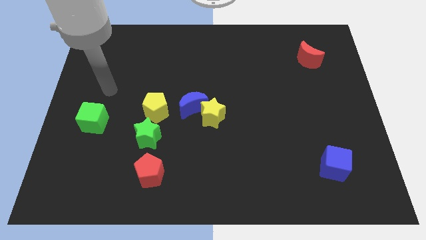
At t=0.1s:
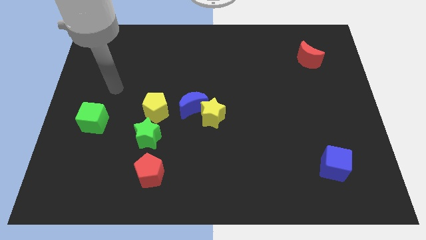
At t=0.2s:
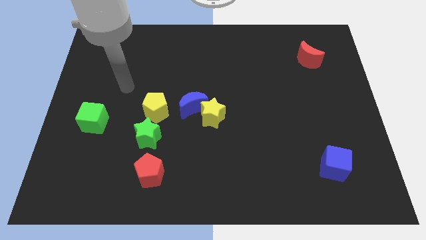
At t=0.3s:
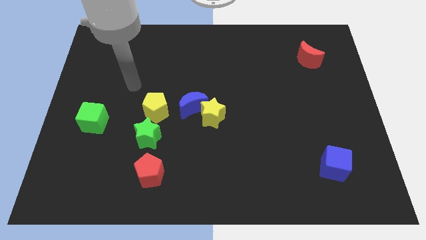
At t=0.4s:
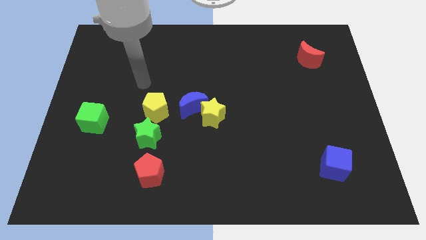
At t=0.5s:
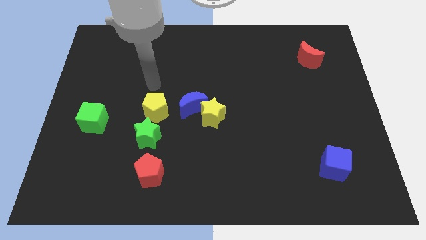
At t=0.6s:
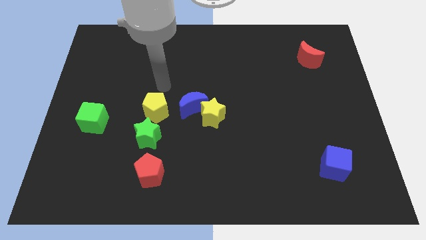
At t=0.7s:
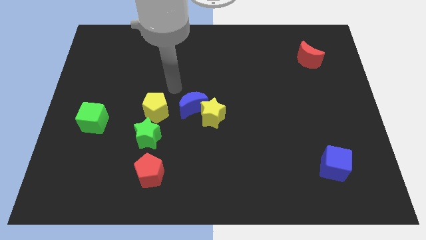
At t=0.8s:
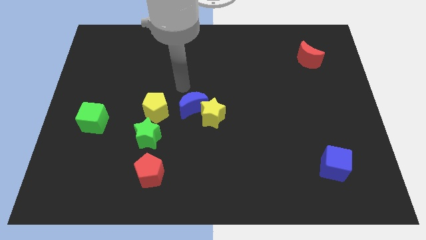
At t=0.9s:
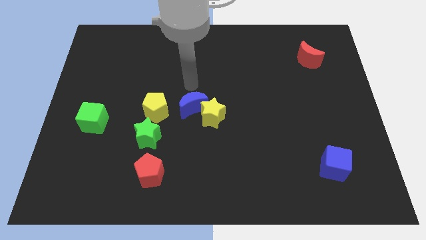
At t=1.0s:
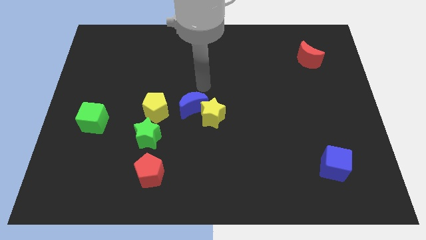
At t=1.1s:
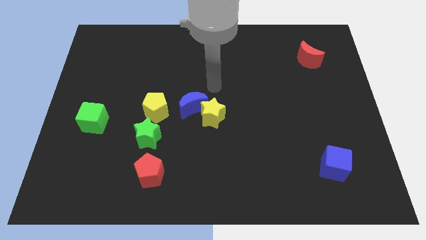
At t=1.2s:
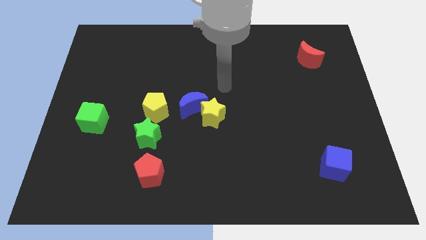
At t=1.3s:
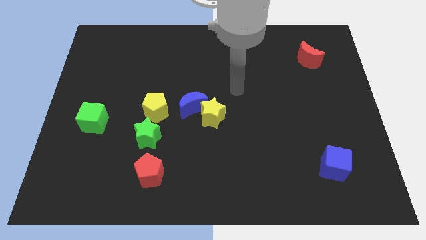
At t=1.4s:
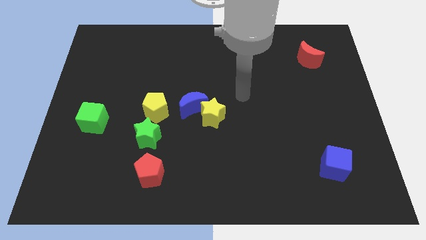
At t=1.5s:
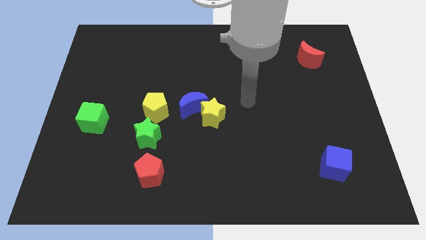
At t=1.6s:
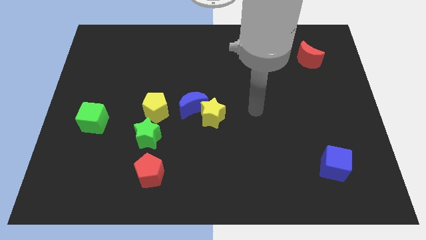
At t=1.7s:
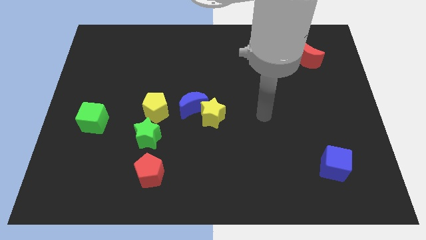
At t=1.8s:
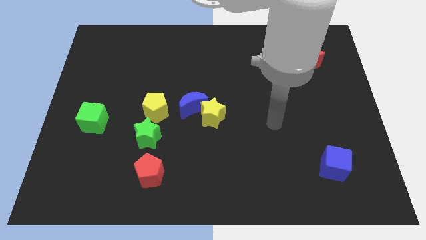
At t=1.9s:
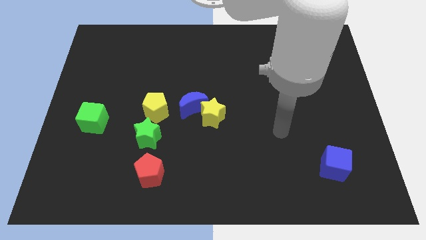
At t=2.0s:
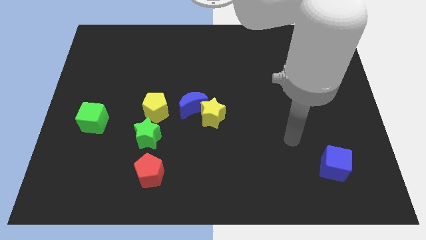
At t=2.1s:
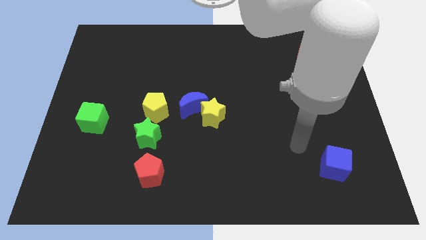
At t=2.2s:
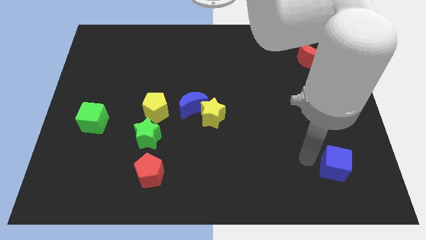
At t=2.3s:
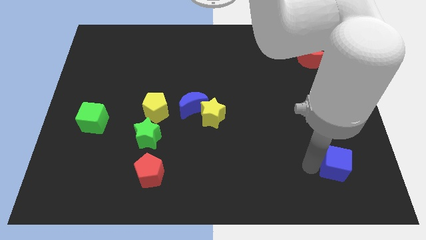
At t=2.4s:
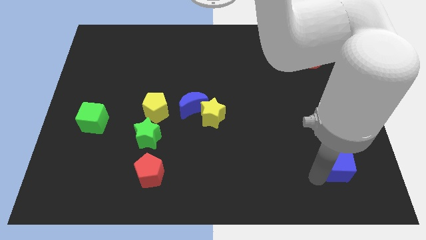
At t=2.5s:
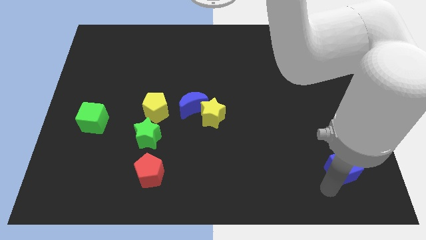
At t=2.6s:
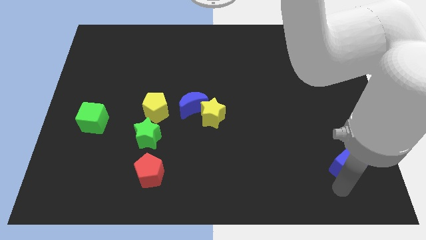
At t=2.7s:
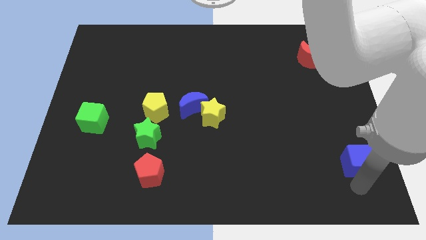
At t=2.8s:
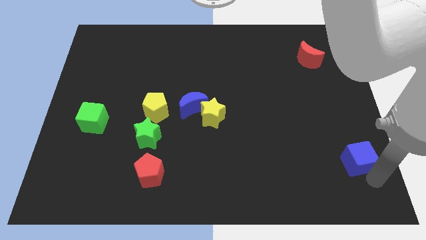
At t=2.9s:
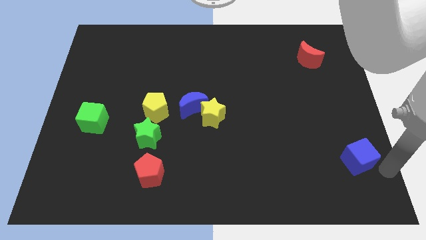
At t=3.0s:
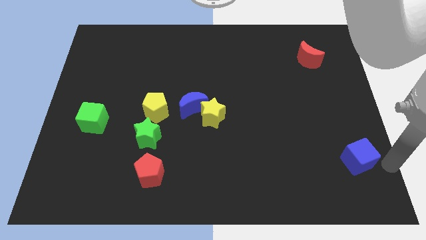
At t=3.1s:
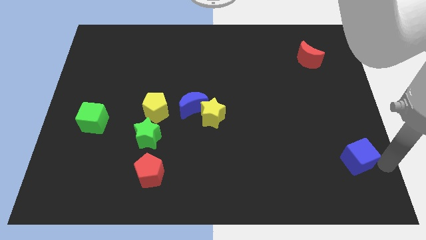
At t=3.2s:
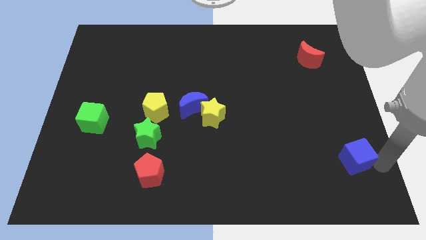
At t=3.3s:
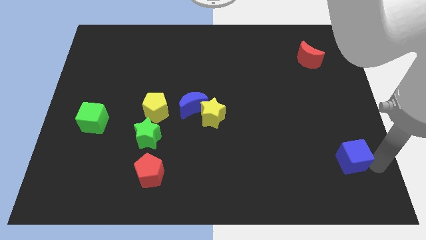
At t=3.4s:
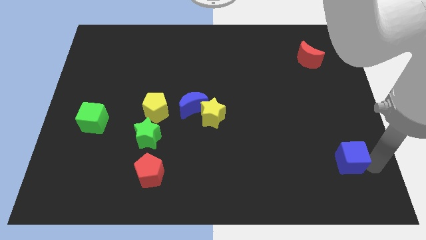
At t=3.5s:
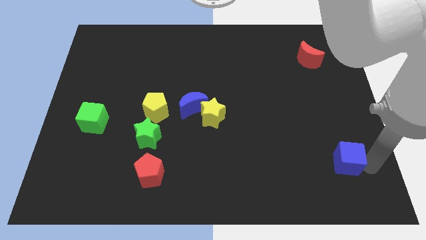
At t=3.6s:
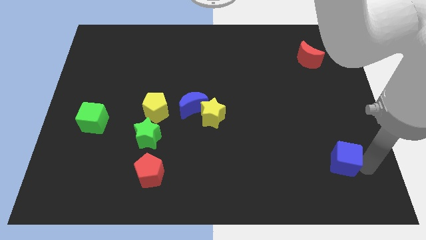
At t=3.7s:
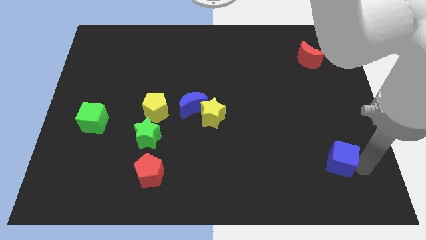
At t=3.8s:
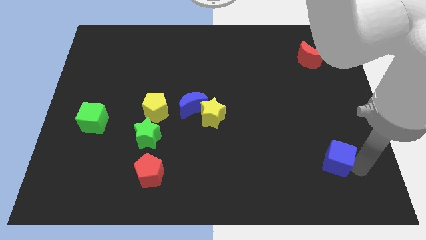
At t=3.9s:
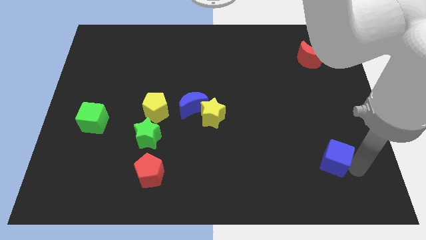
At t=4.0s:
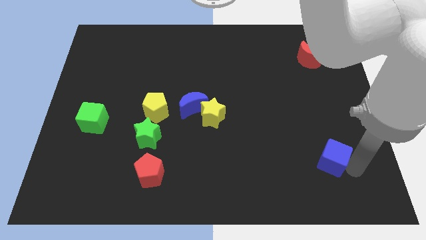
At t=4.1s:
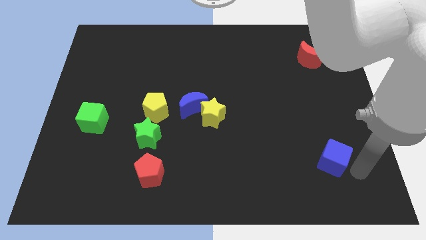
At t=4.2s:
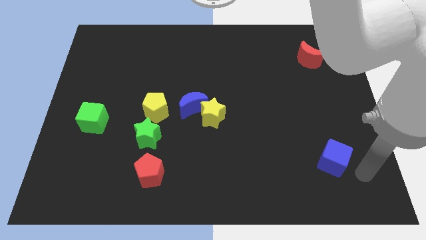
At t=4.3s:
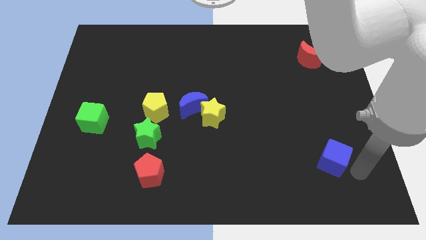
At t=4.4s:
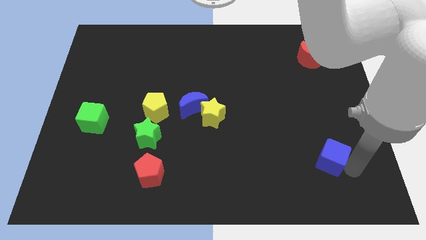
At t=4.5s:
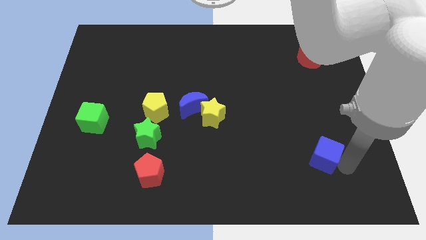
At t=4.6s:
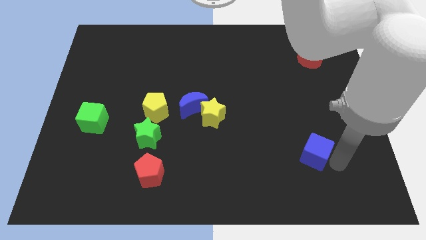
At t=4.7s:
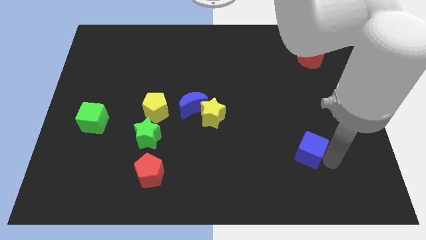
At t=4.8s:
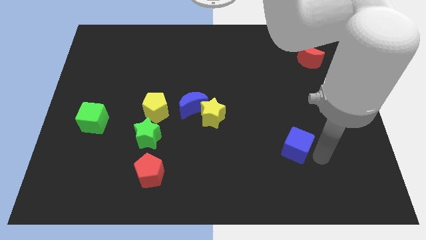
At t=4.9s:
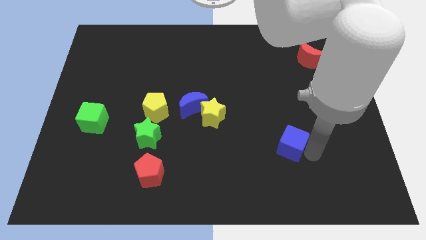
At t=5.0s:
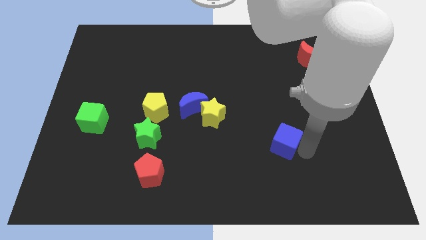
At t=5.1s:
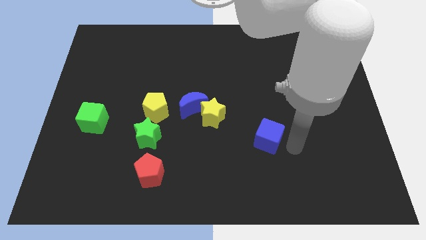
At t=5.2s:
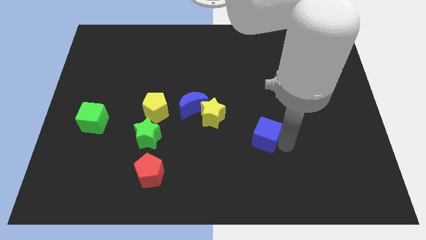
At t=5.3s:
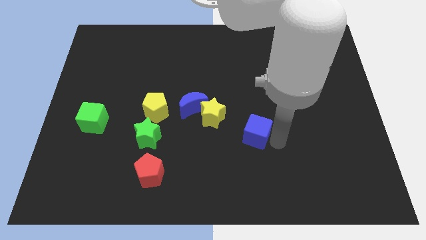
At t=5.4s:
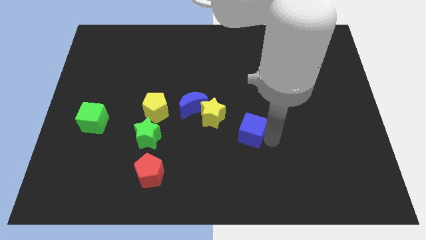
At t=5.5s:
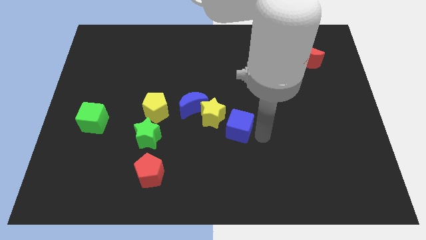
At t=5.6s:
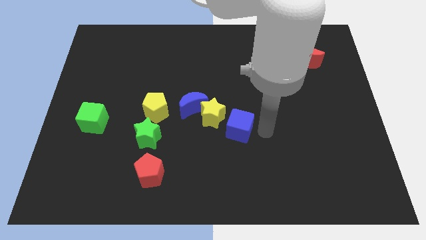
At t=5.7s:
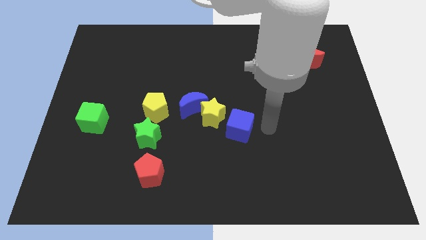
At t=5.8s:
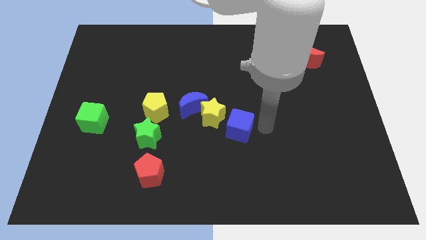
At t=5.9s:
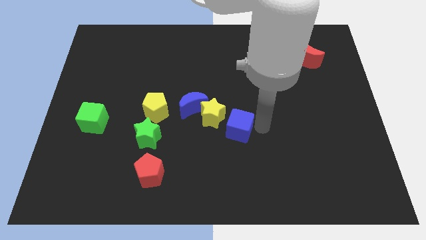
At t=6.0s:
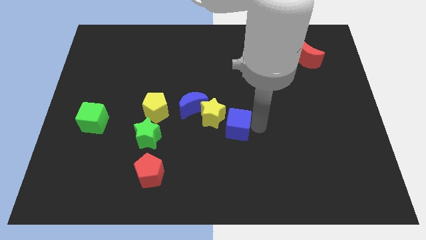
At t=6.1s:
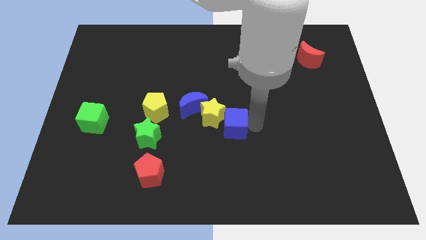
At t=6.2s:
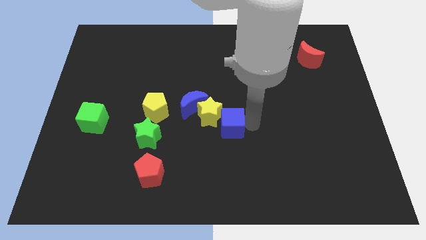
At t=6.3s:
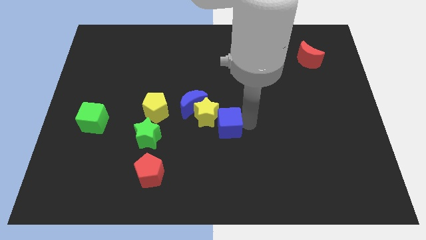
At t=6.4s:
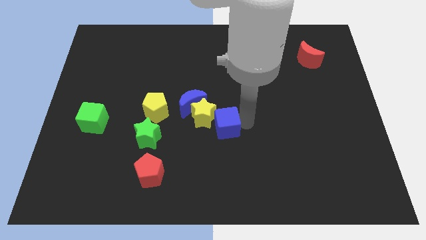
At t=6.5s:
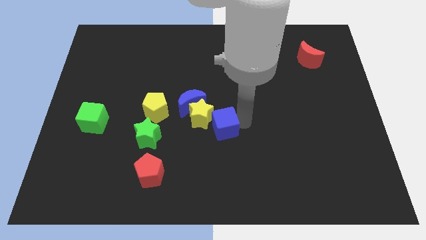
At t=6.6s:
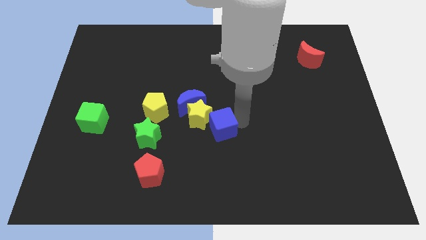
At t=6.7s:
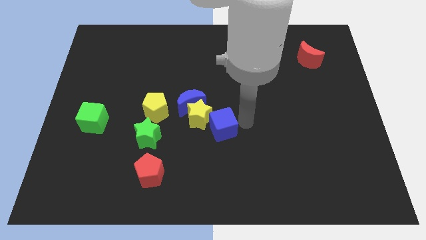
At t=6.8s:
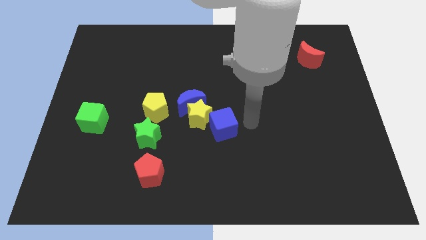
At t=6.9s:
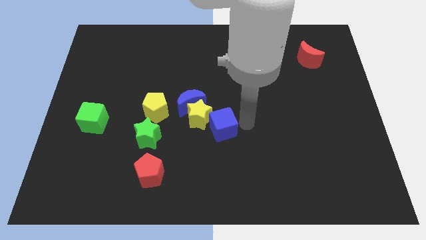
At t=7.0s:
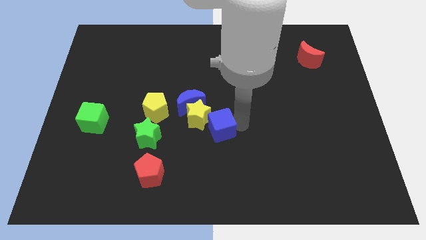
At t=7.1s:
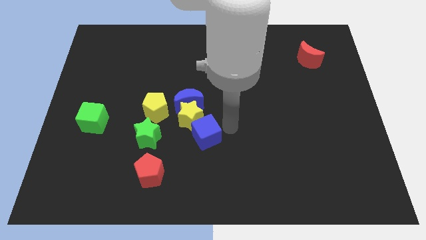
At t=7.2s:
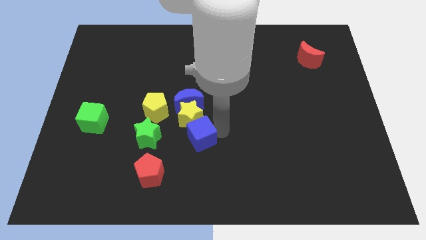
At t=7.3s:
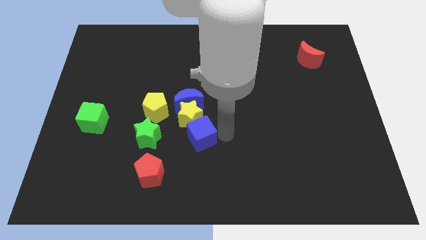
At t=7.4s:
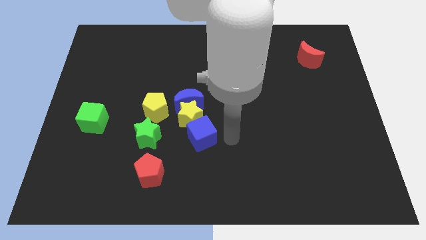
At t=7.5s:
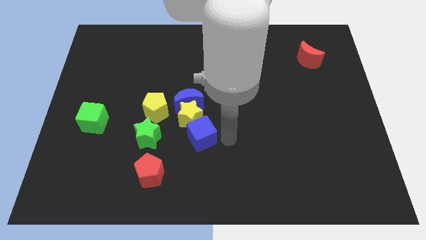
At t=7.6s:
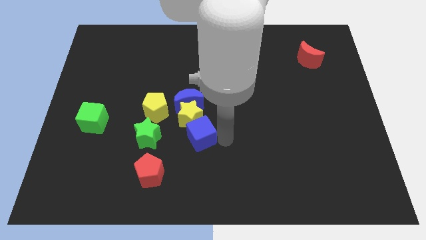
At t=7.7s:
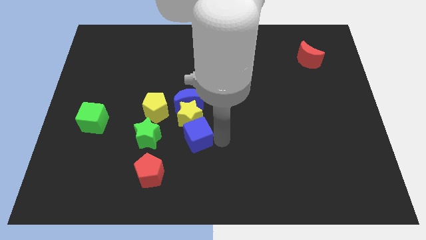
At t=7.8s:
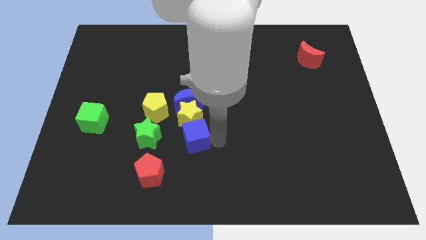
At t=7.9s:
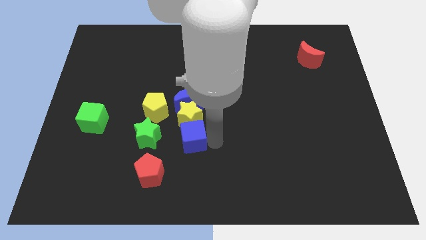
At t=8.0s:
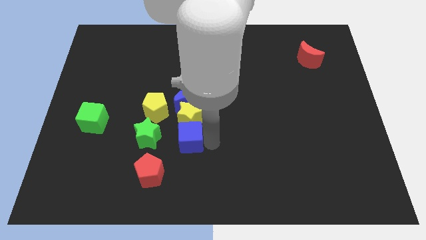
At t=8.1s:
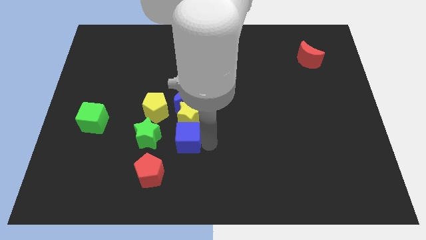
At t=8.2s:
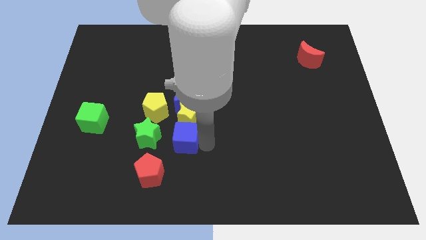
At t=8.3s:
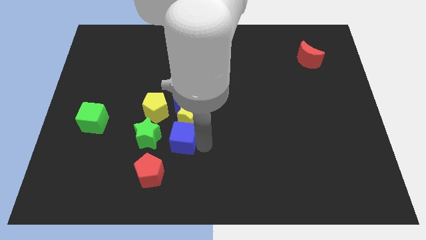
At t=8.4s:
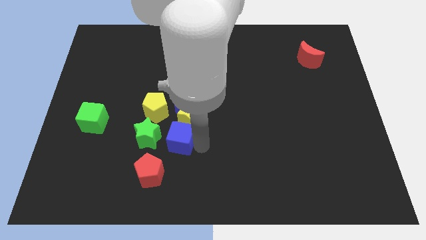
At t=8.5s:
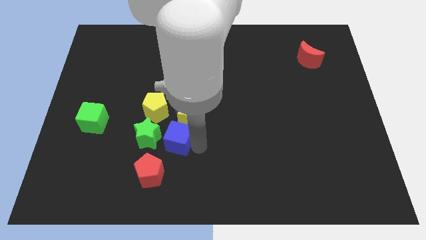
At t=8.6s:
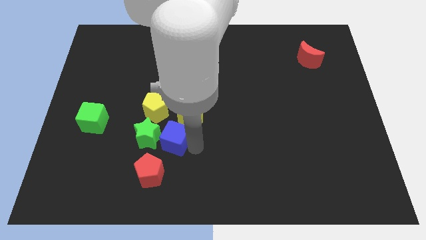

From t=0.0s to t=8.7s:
slide the blue cube towards the green star
